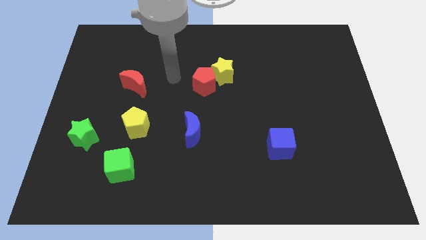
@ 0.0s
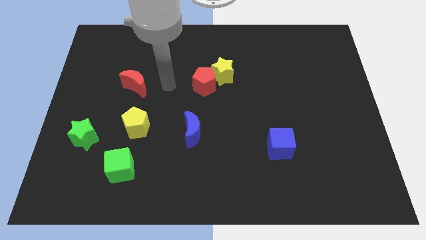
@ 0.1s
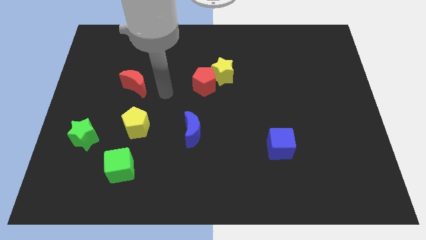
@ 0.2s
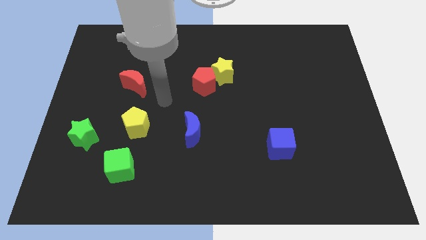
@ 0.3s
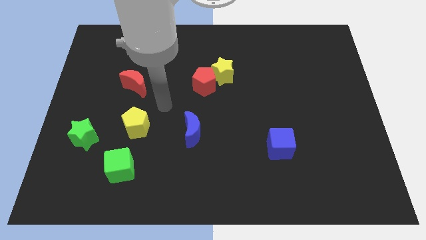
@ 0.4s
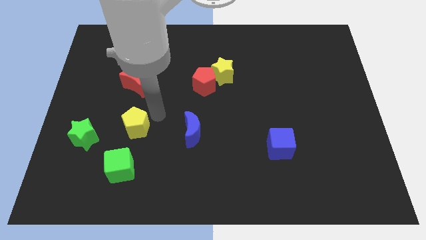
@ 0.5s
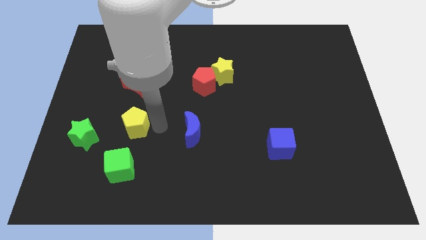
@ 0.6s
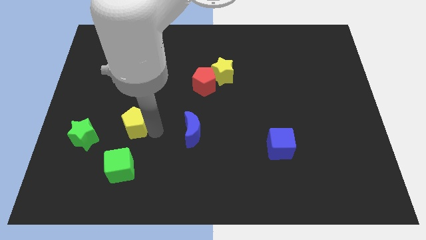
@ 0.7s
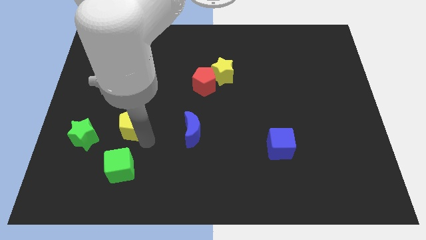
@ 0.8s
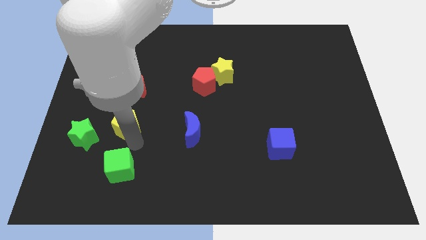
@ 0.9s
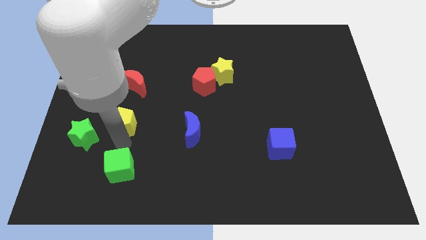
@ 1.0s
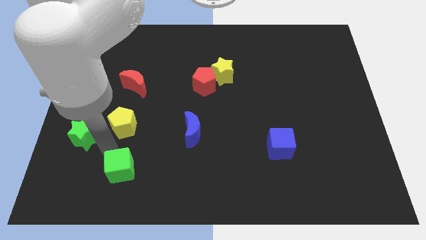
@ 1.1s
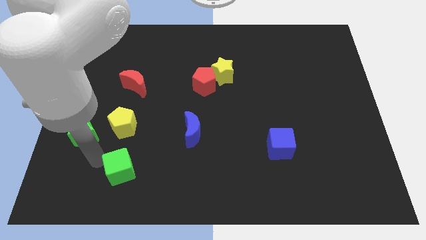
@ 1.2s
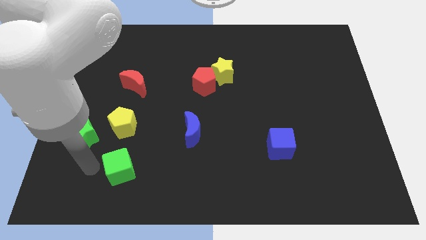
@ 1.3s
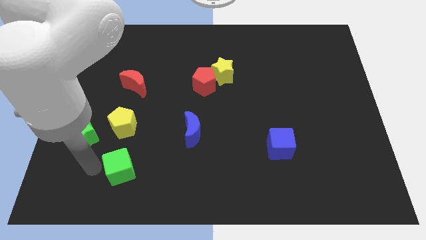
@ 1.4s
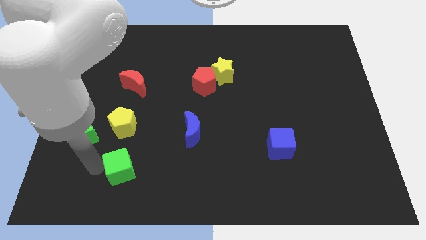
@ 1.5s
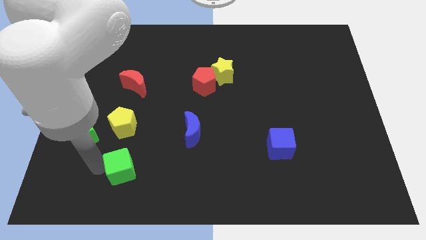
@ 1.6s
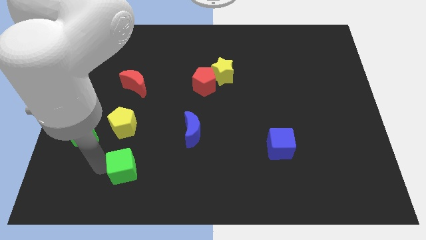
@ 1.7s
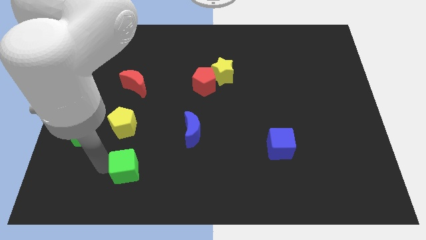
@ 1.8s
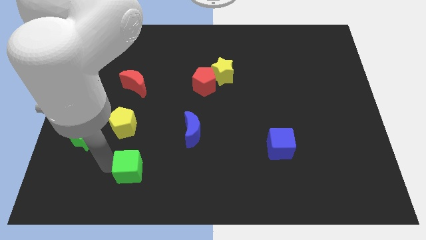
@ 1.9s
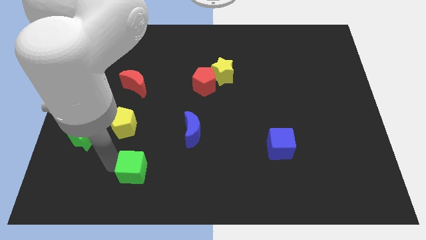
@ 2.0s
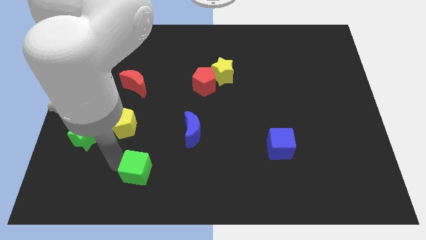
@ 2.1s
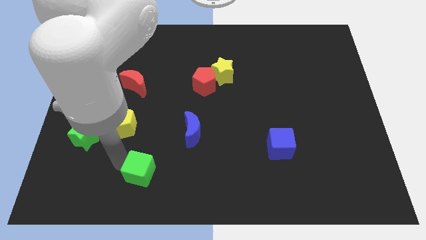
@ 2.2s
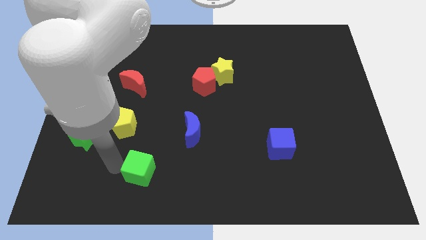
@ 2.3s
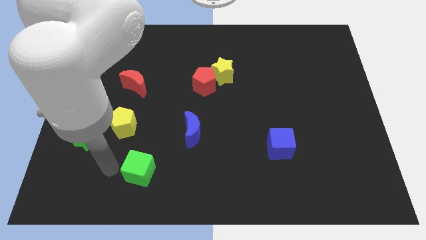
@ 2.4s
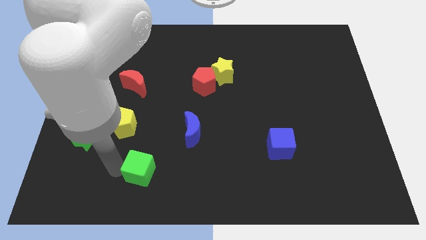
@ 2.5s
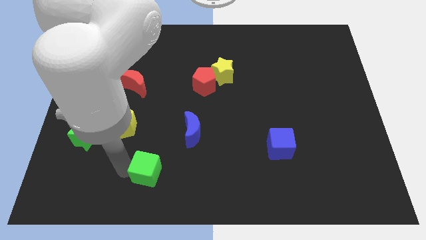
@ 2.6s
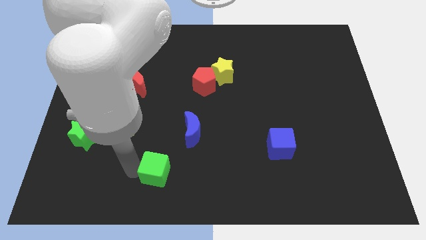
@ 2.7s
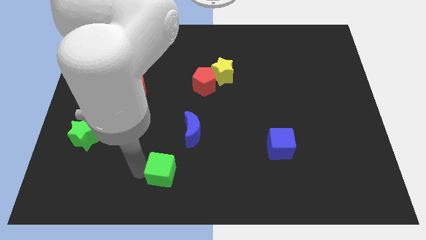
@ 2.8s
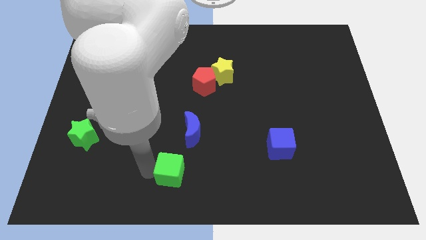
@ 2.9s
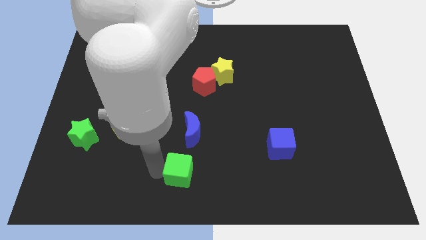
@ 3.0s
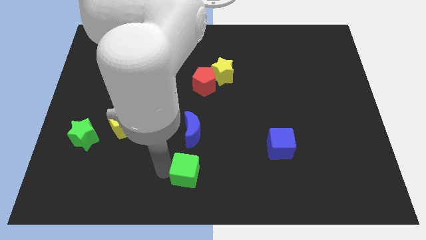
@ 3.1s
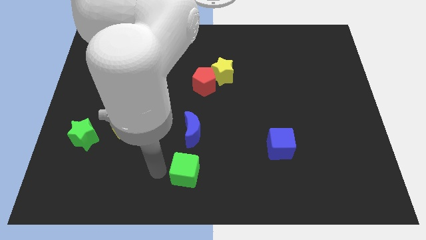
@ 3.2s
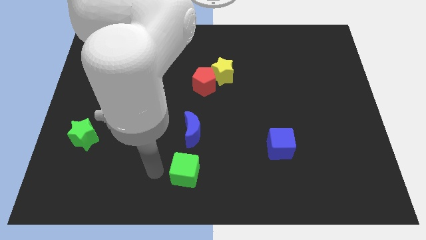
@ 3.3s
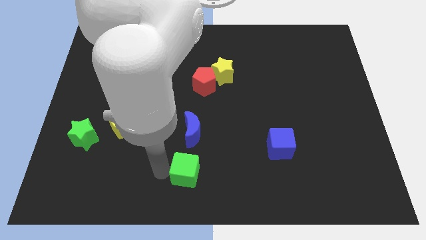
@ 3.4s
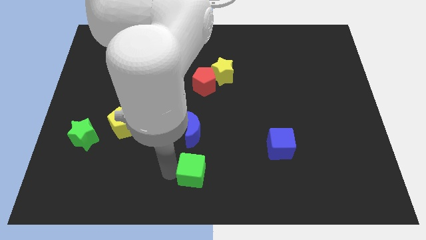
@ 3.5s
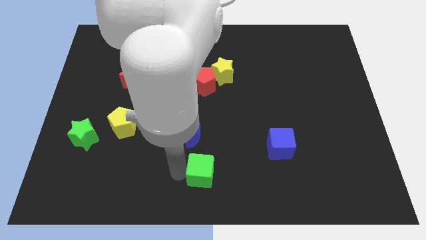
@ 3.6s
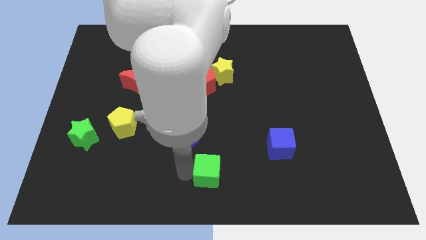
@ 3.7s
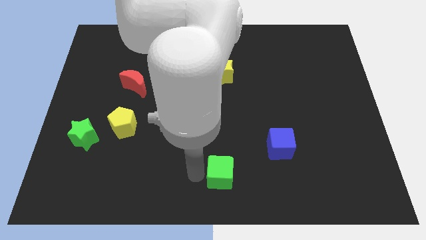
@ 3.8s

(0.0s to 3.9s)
slide the green cube to the right

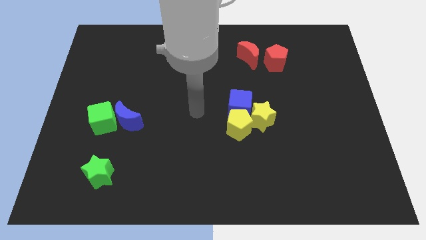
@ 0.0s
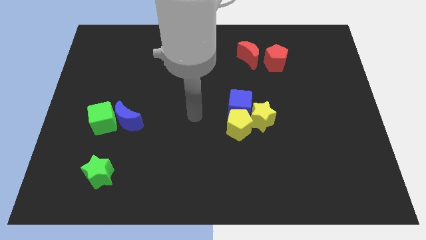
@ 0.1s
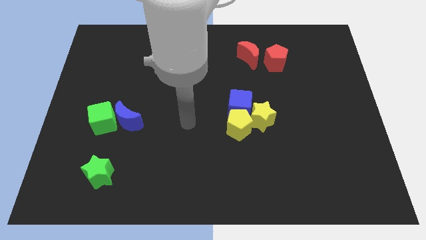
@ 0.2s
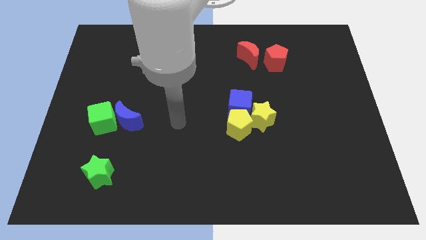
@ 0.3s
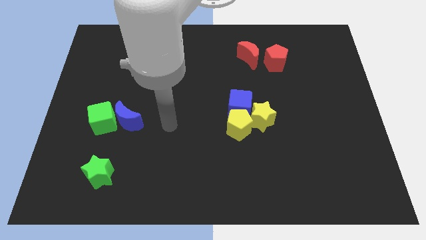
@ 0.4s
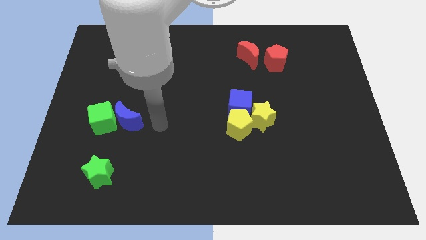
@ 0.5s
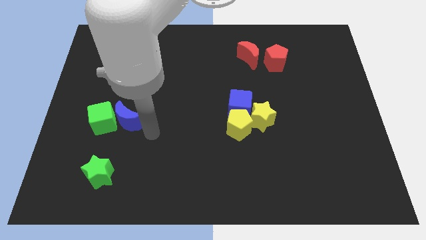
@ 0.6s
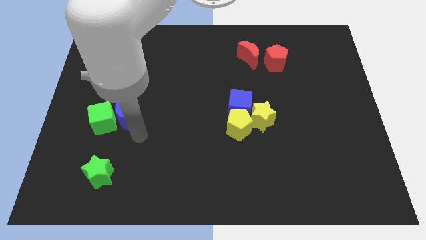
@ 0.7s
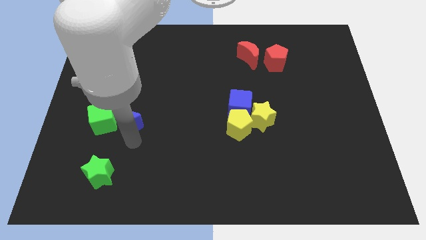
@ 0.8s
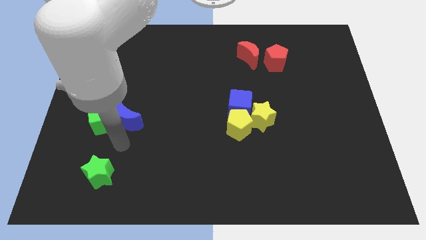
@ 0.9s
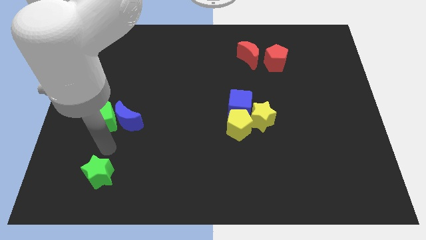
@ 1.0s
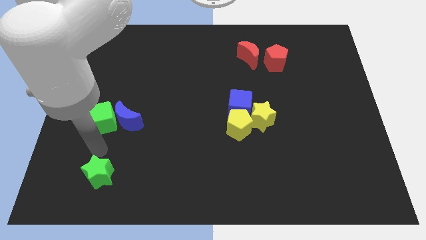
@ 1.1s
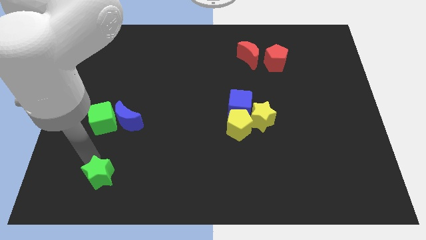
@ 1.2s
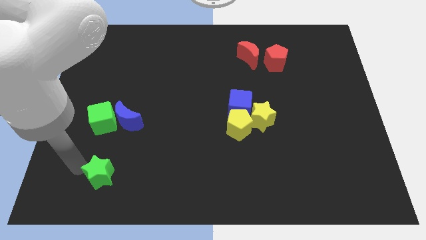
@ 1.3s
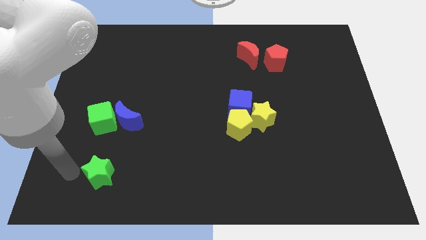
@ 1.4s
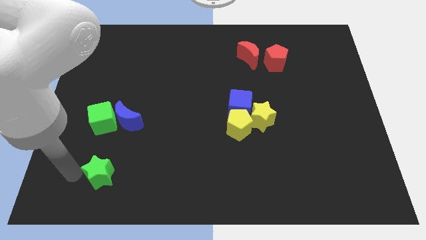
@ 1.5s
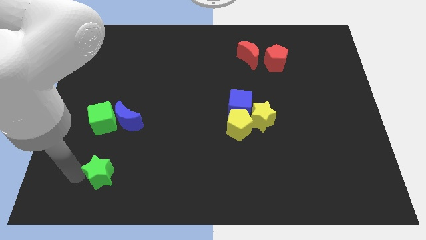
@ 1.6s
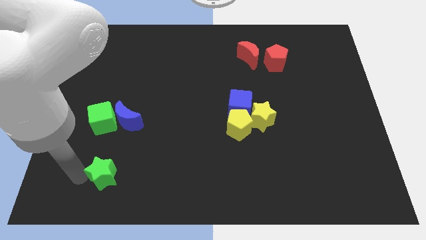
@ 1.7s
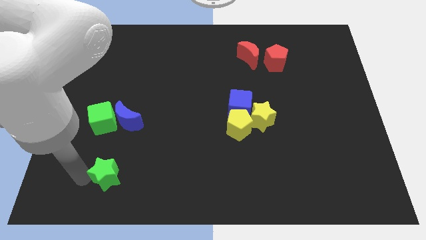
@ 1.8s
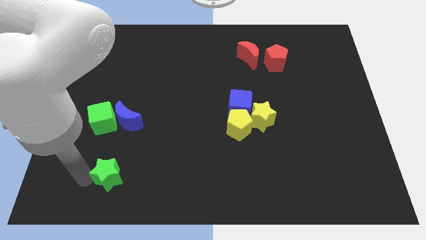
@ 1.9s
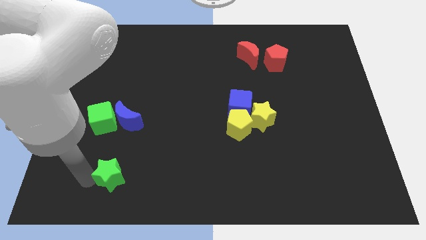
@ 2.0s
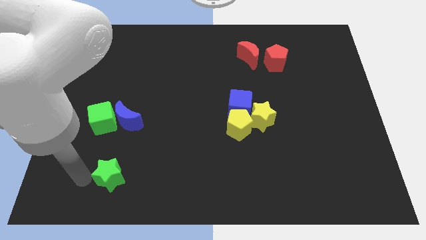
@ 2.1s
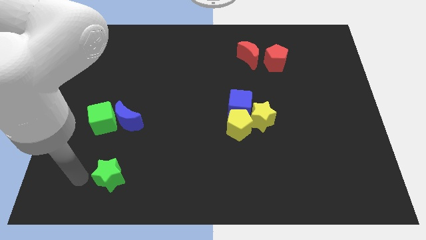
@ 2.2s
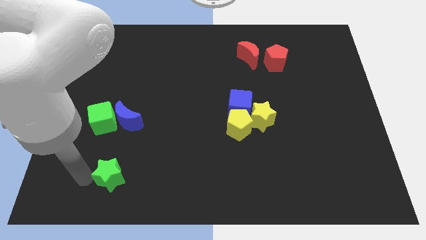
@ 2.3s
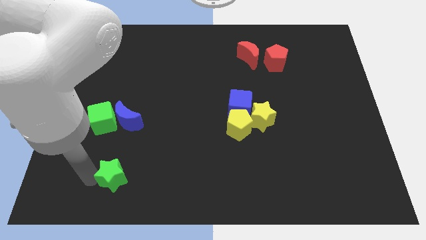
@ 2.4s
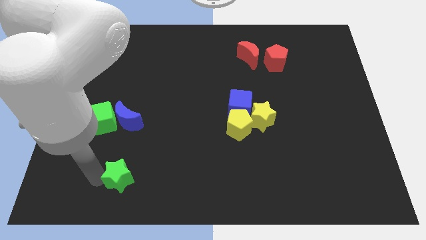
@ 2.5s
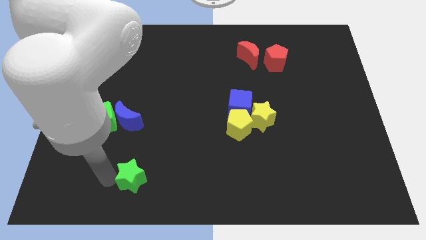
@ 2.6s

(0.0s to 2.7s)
slide the green star somewhat to the right

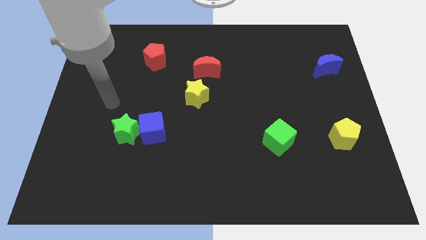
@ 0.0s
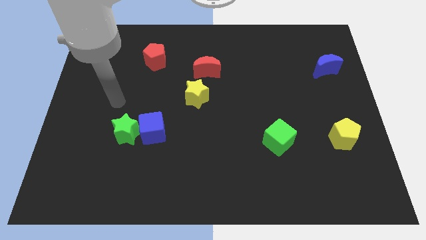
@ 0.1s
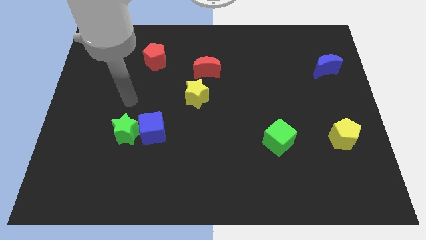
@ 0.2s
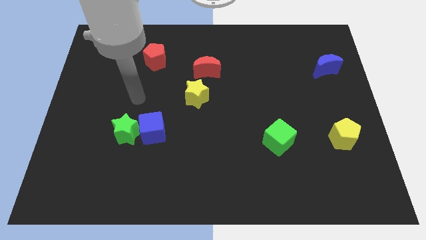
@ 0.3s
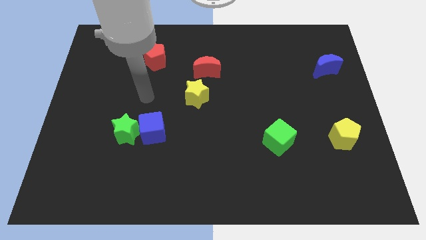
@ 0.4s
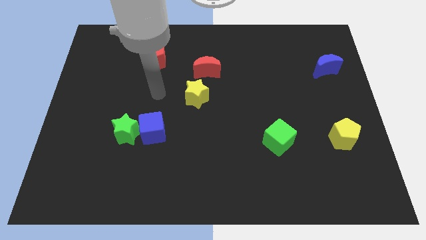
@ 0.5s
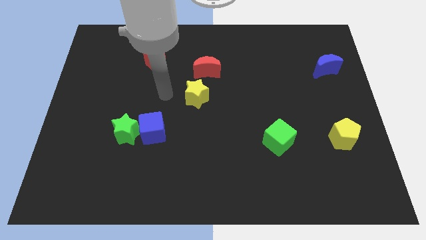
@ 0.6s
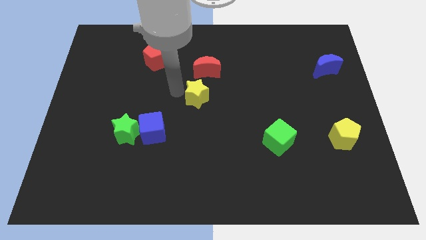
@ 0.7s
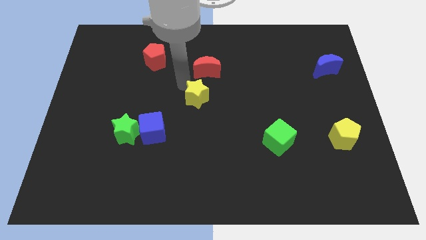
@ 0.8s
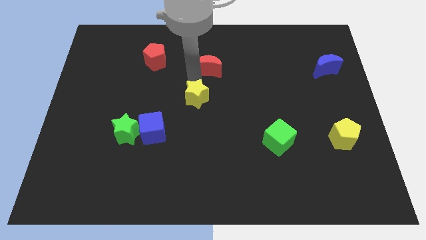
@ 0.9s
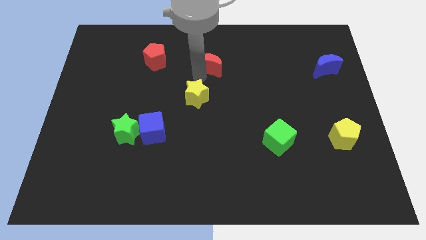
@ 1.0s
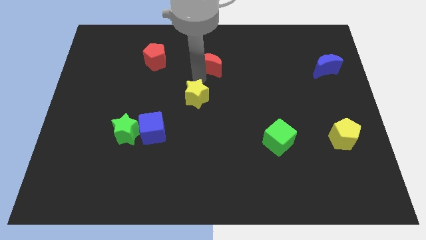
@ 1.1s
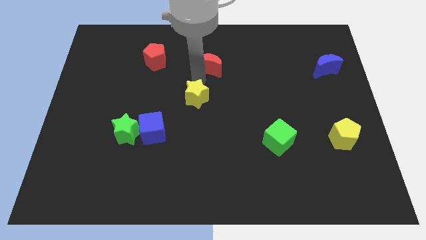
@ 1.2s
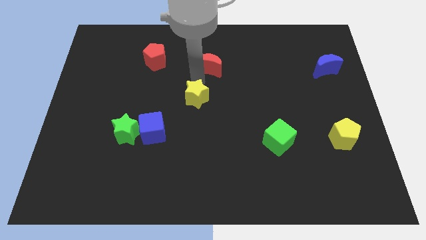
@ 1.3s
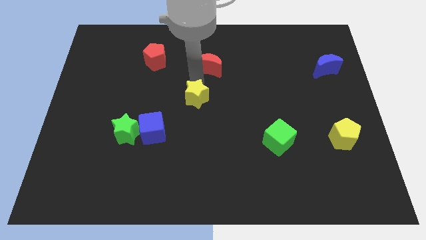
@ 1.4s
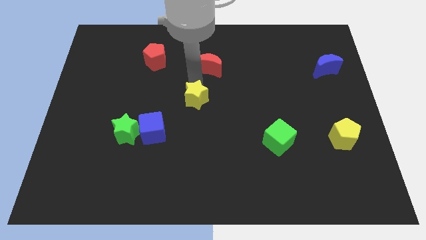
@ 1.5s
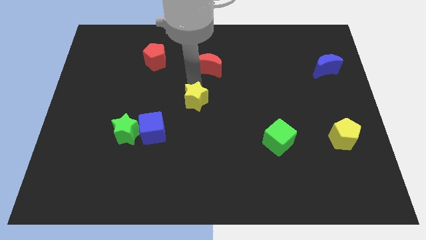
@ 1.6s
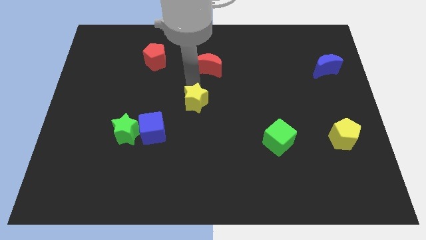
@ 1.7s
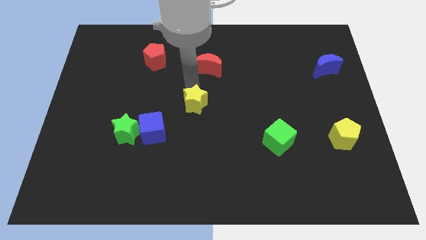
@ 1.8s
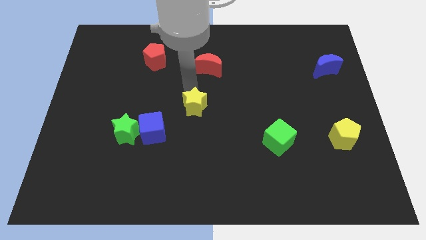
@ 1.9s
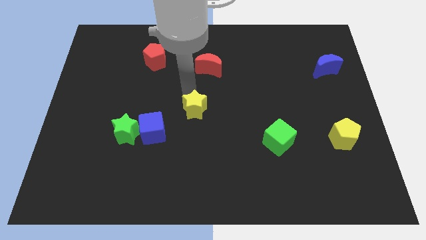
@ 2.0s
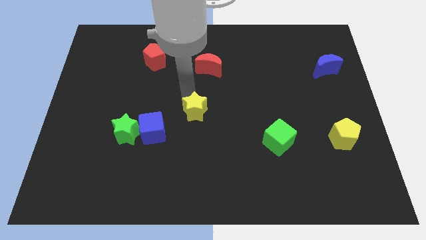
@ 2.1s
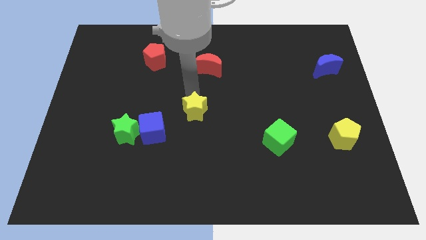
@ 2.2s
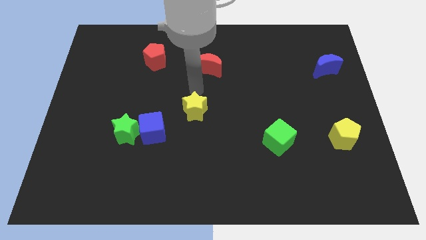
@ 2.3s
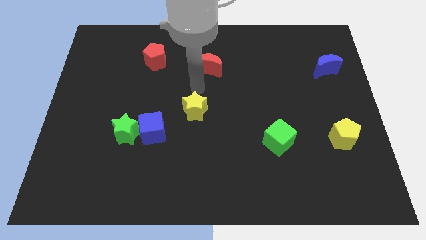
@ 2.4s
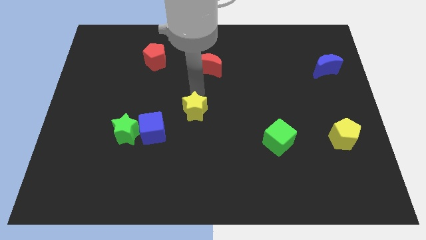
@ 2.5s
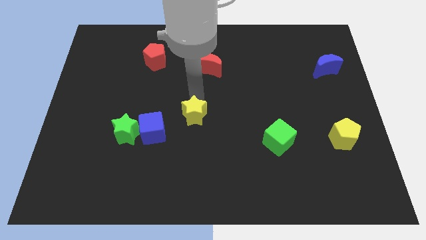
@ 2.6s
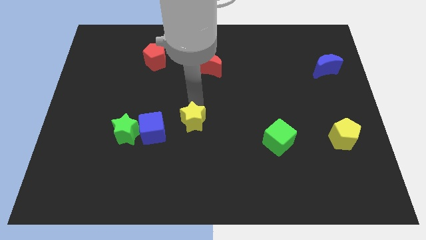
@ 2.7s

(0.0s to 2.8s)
push the yellow star down slightly
